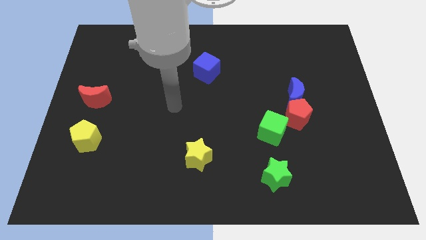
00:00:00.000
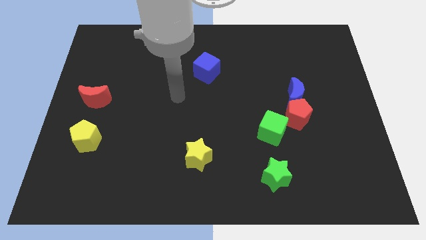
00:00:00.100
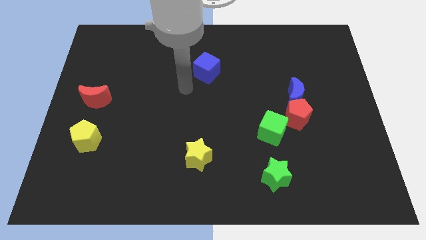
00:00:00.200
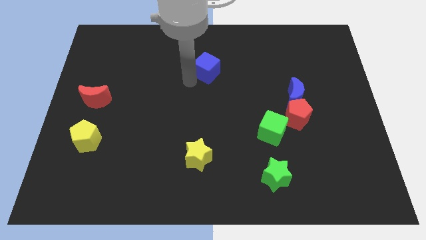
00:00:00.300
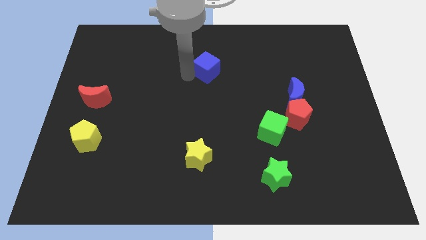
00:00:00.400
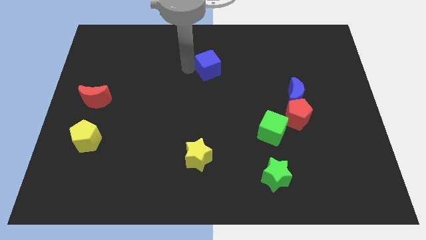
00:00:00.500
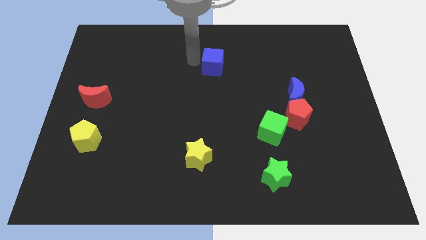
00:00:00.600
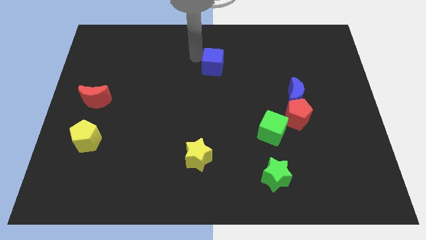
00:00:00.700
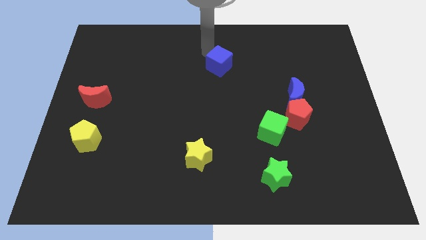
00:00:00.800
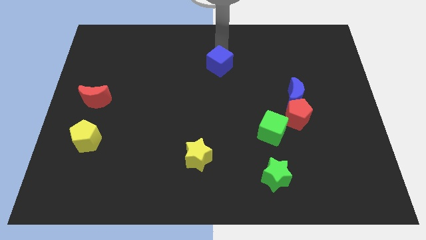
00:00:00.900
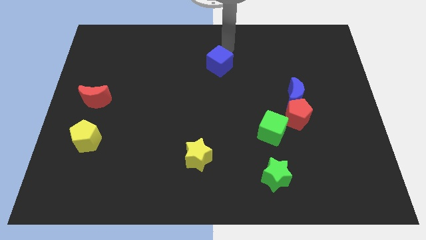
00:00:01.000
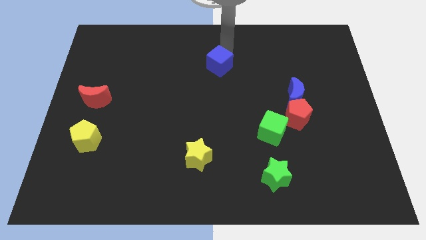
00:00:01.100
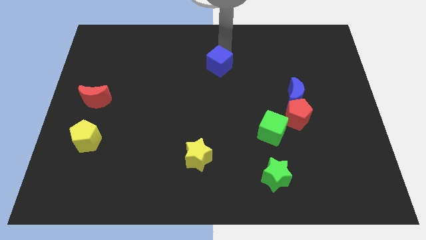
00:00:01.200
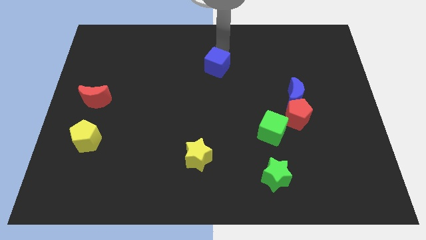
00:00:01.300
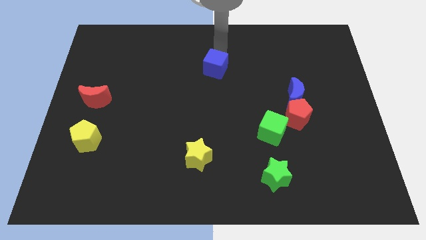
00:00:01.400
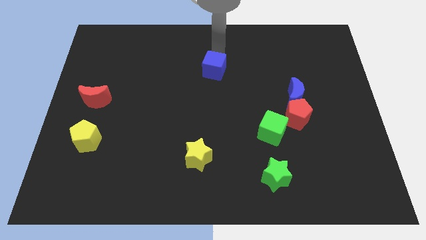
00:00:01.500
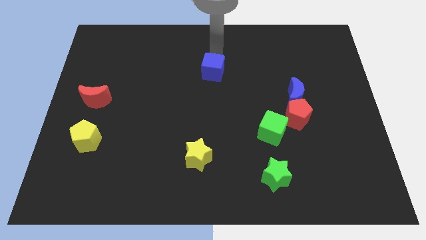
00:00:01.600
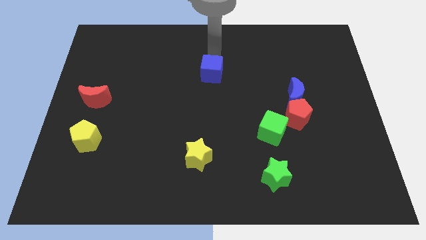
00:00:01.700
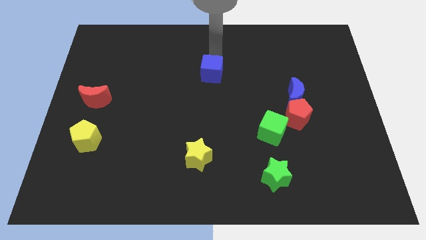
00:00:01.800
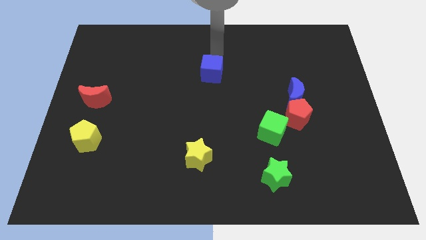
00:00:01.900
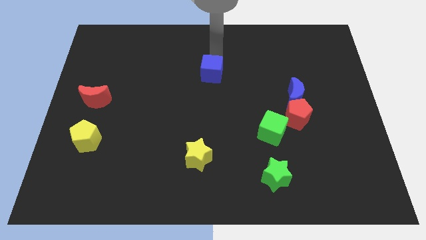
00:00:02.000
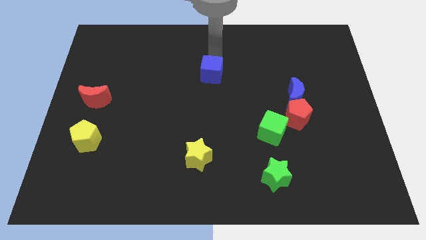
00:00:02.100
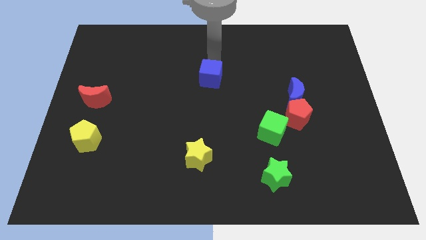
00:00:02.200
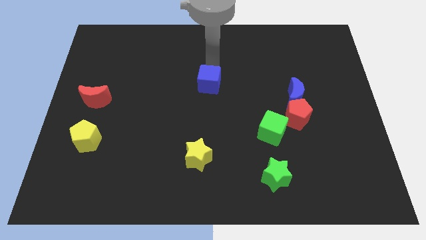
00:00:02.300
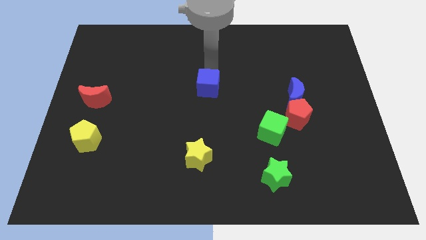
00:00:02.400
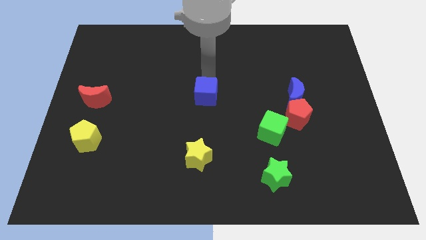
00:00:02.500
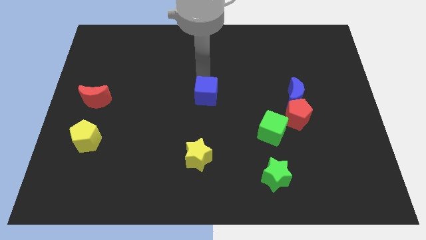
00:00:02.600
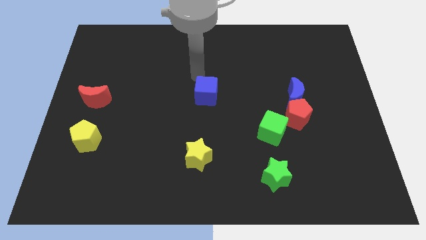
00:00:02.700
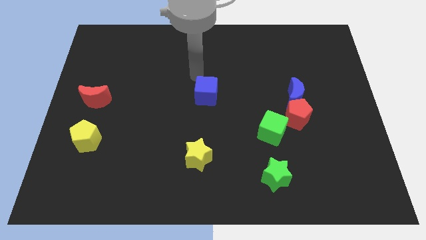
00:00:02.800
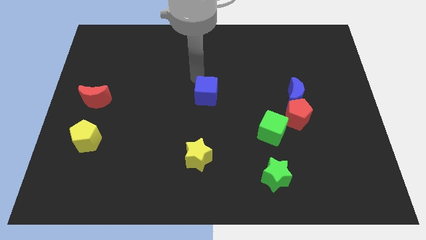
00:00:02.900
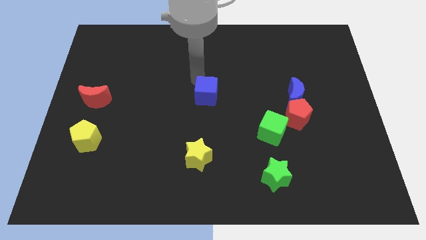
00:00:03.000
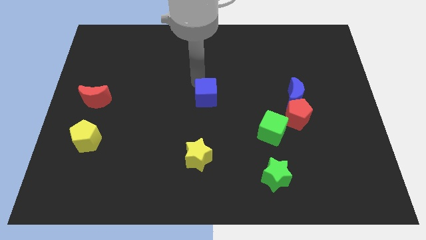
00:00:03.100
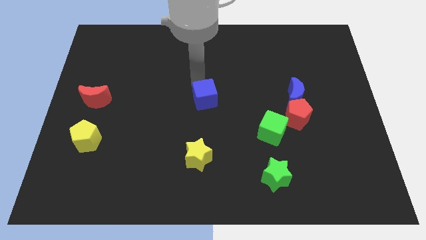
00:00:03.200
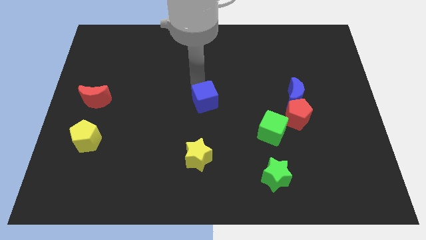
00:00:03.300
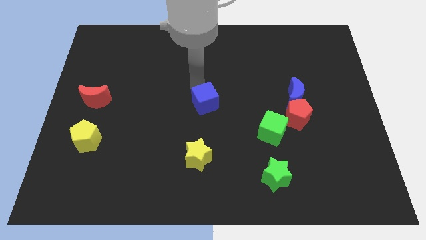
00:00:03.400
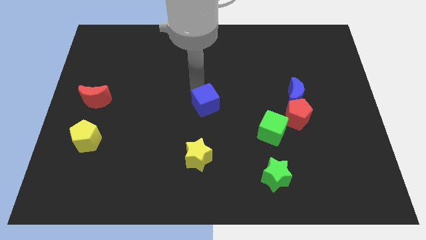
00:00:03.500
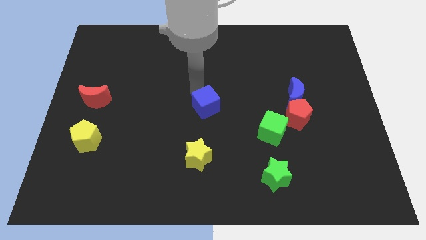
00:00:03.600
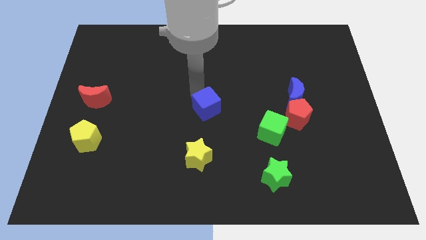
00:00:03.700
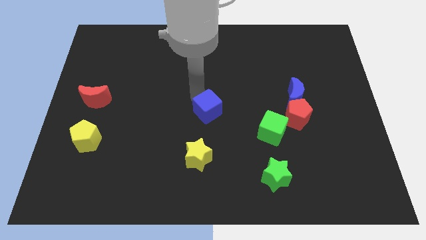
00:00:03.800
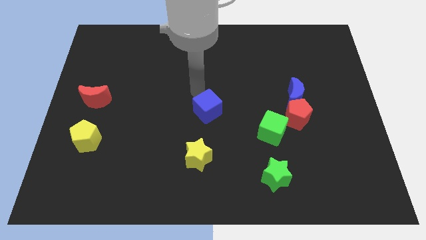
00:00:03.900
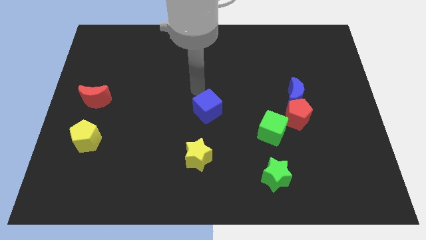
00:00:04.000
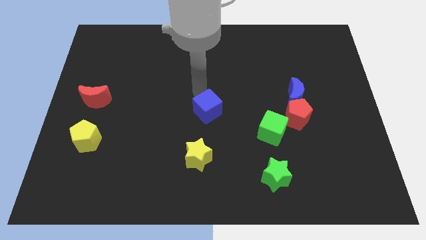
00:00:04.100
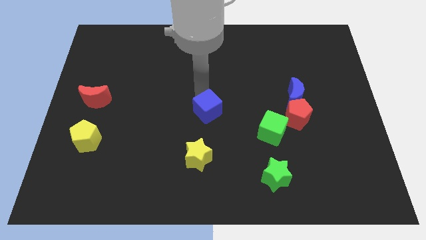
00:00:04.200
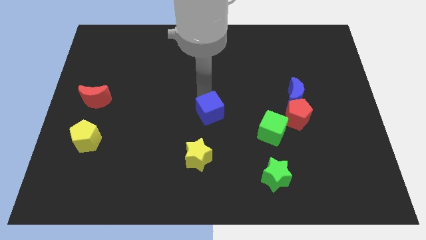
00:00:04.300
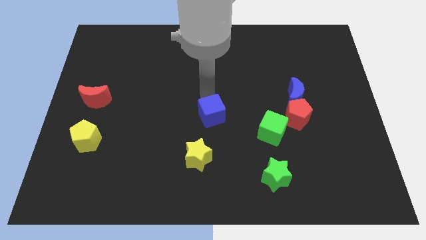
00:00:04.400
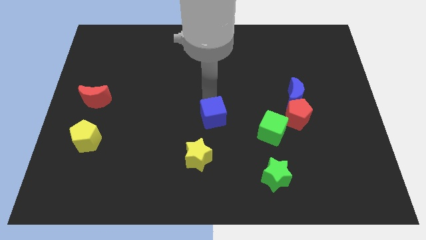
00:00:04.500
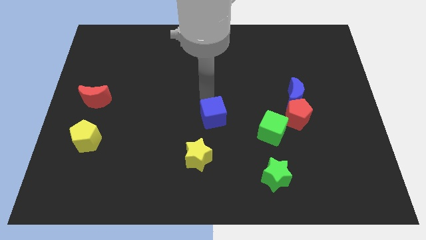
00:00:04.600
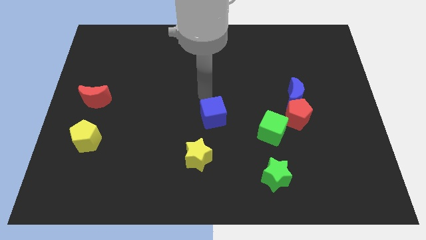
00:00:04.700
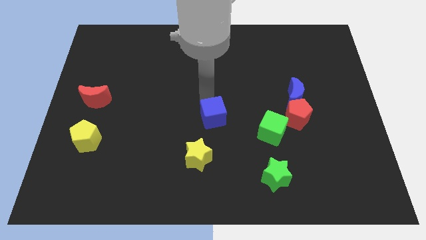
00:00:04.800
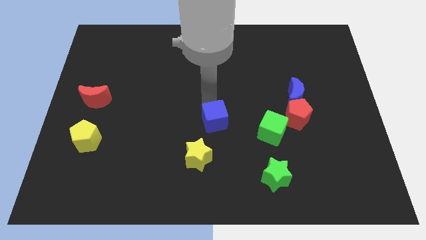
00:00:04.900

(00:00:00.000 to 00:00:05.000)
slide the blue cube to the top right side of the yellow star

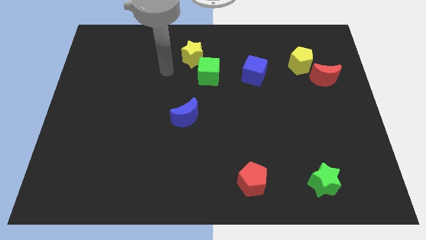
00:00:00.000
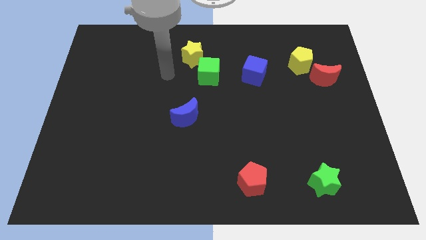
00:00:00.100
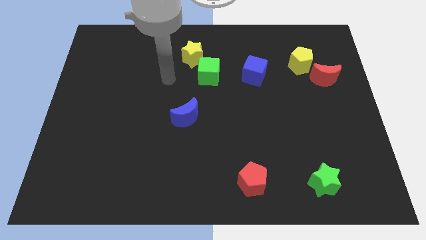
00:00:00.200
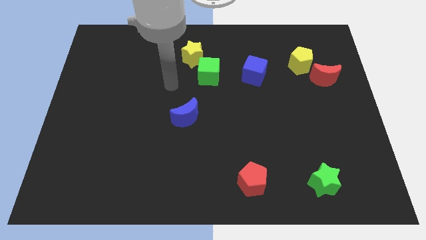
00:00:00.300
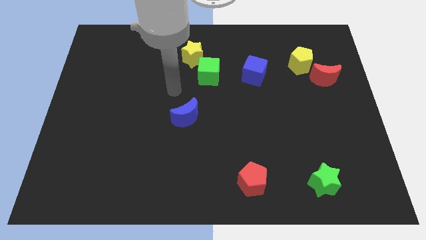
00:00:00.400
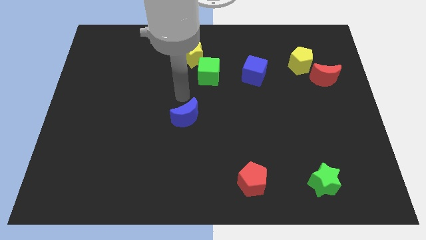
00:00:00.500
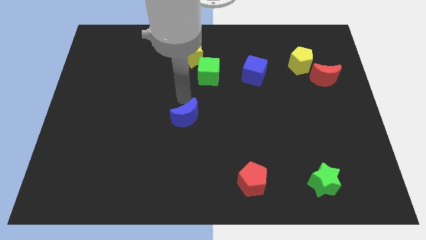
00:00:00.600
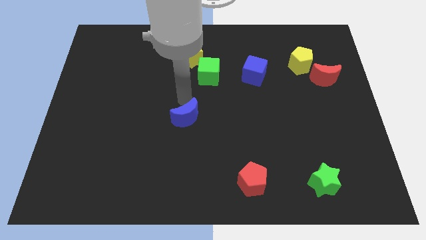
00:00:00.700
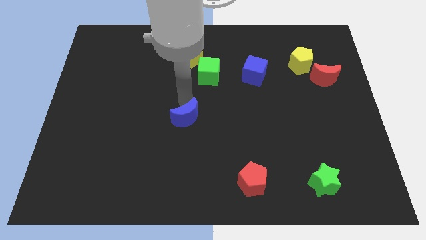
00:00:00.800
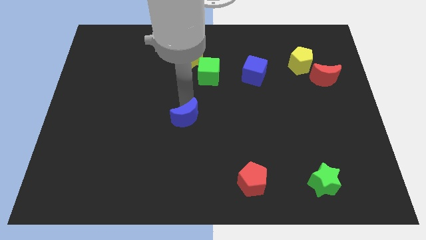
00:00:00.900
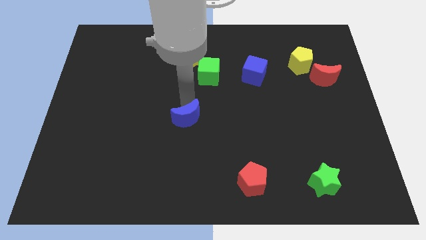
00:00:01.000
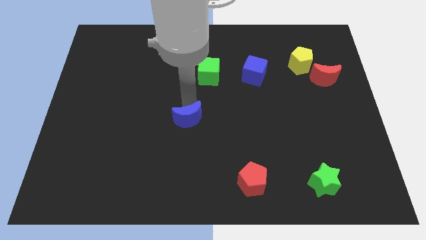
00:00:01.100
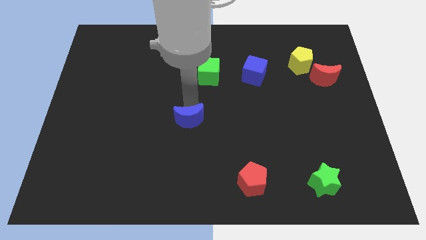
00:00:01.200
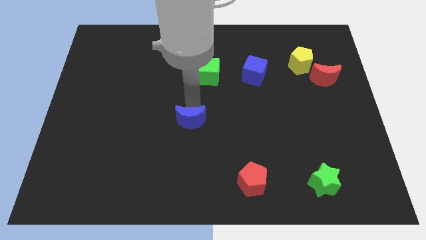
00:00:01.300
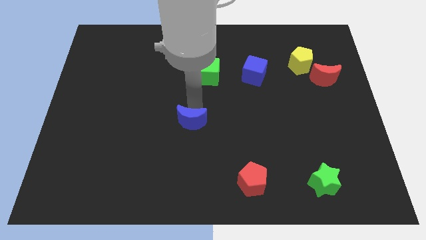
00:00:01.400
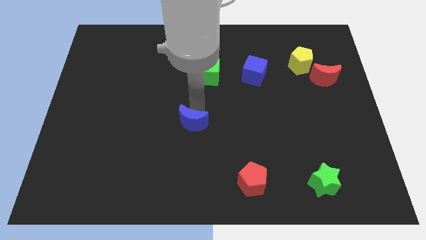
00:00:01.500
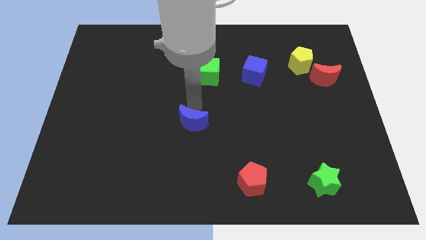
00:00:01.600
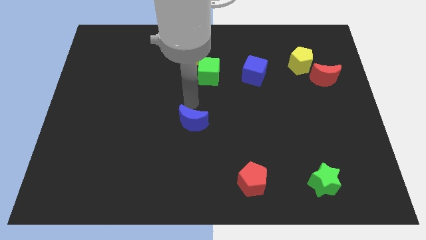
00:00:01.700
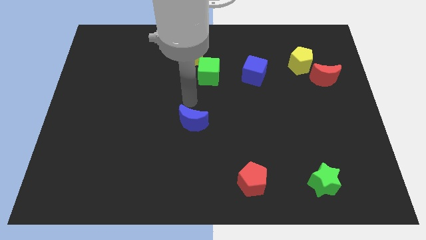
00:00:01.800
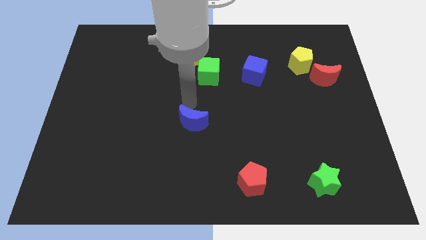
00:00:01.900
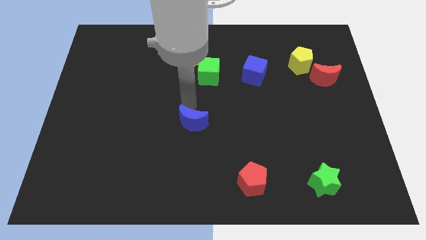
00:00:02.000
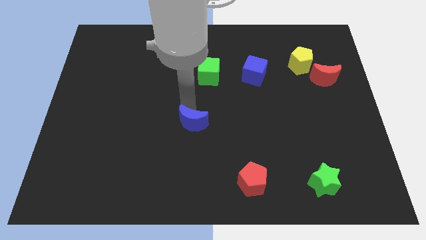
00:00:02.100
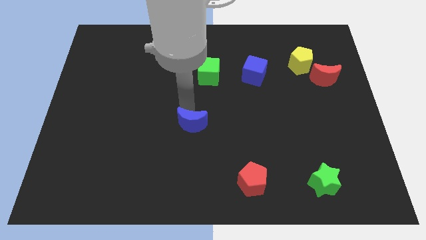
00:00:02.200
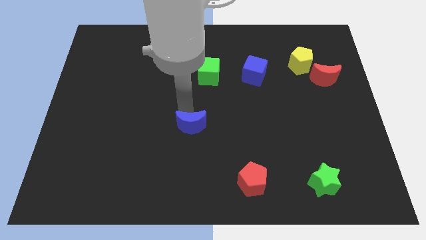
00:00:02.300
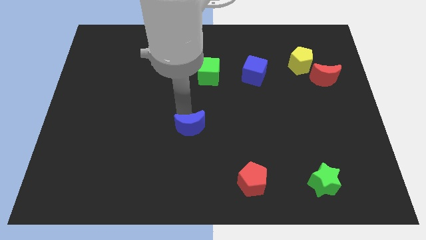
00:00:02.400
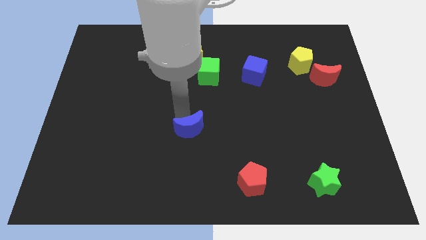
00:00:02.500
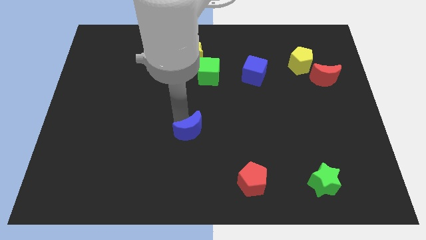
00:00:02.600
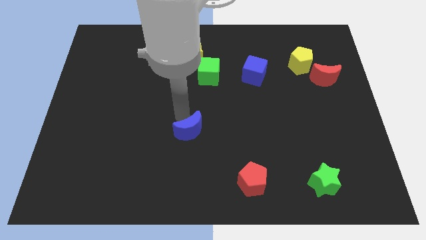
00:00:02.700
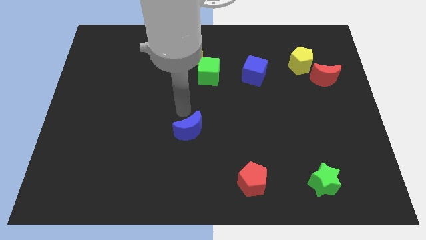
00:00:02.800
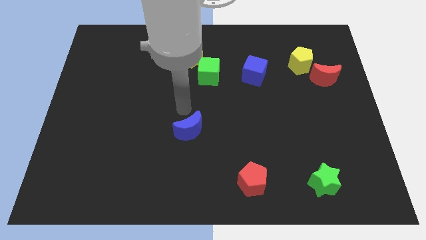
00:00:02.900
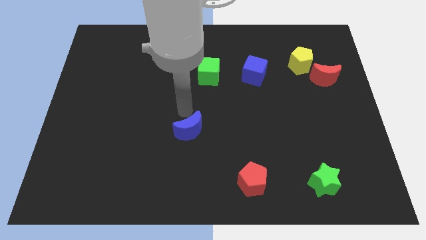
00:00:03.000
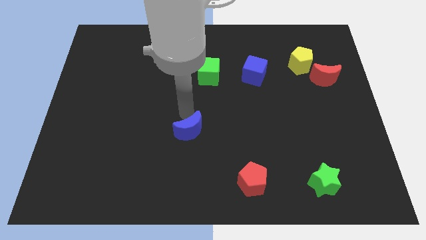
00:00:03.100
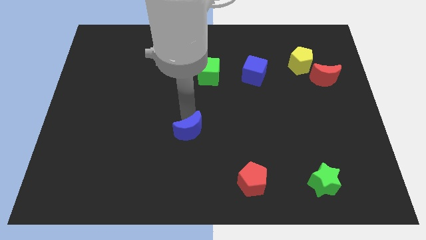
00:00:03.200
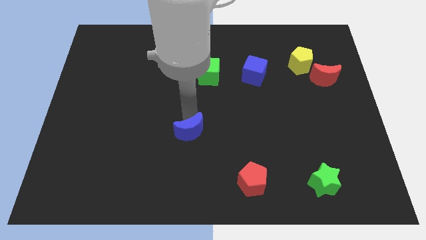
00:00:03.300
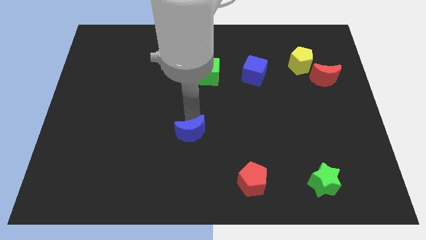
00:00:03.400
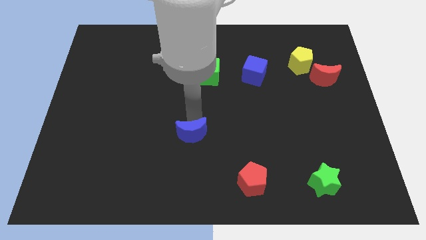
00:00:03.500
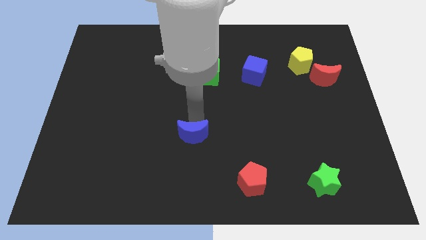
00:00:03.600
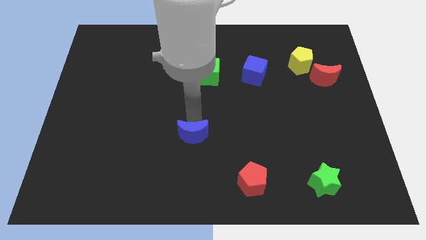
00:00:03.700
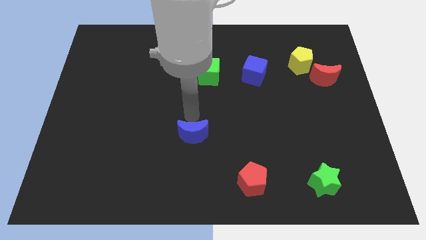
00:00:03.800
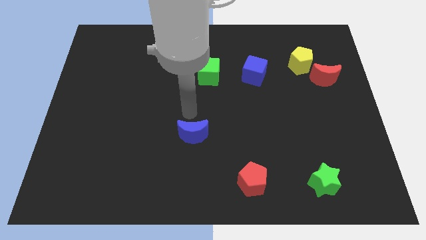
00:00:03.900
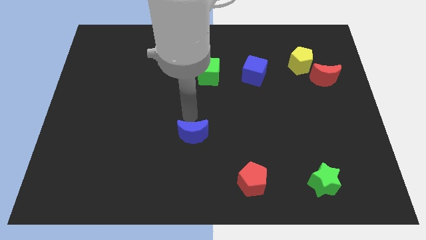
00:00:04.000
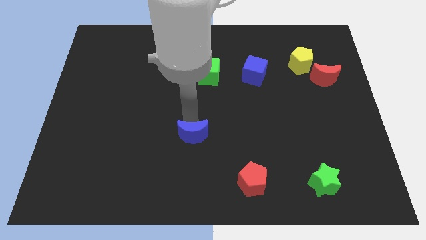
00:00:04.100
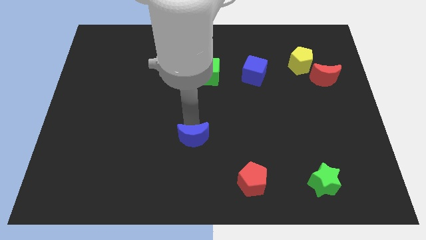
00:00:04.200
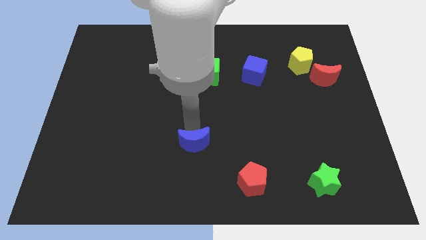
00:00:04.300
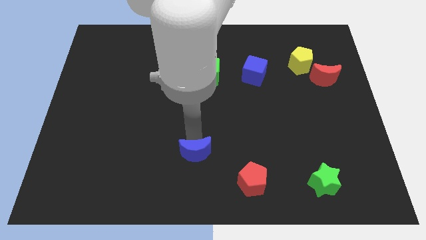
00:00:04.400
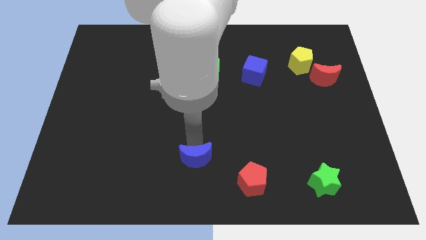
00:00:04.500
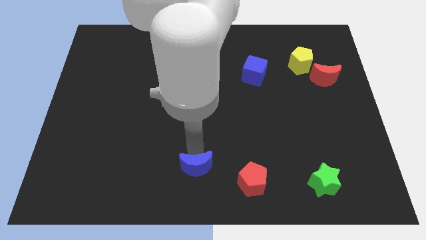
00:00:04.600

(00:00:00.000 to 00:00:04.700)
put the blue moon to the left of the red pentagon
